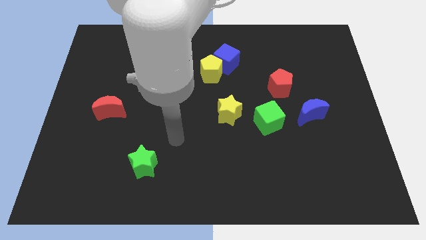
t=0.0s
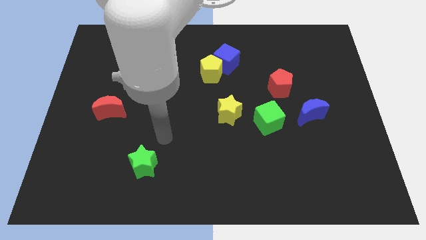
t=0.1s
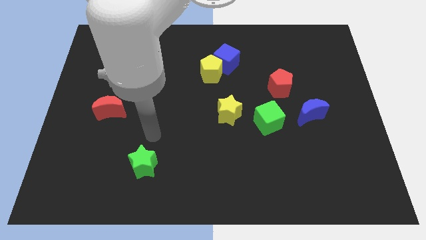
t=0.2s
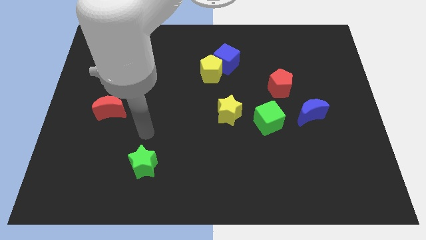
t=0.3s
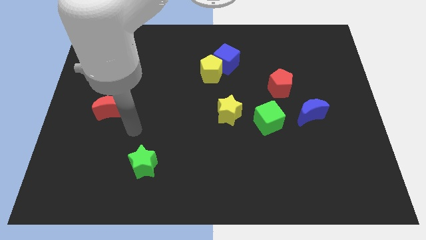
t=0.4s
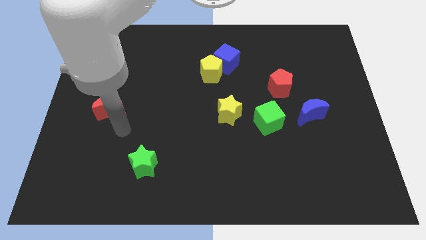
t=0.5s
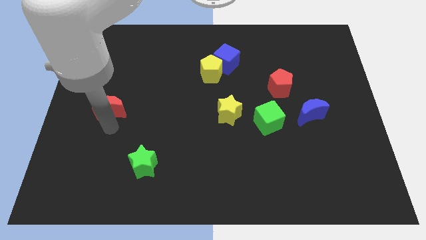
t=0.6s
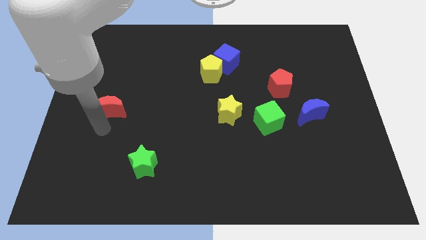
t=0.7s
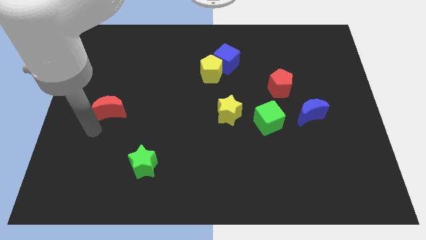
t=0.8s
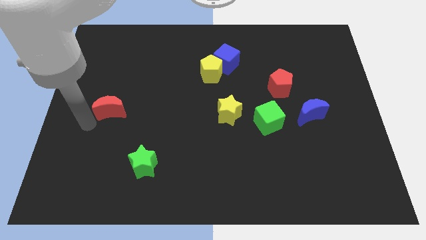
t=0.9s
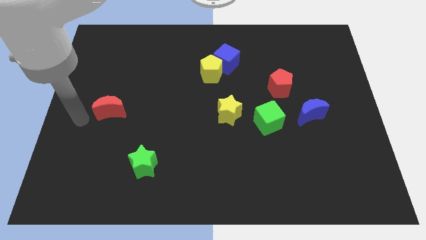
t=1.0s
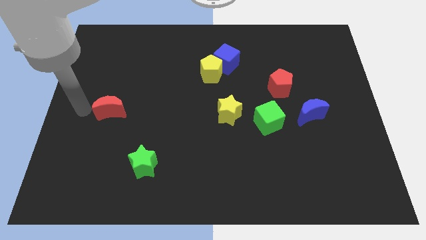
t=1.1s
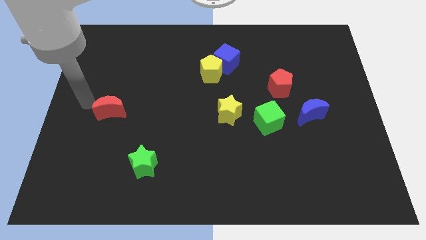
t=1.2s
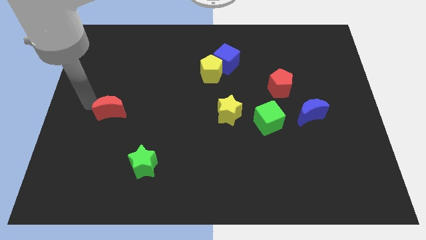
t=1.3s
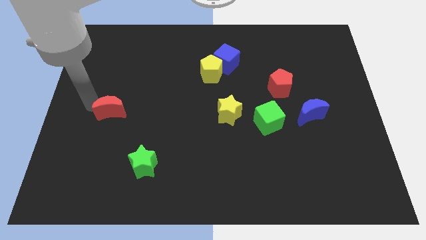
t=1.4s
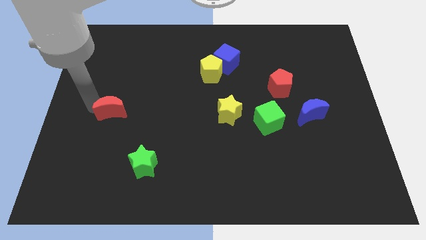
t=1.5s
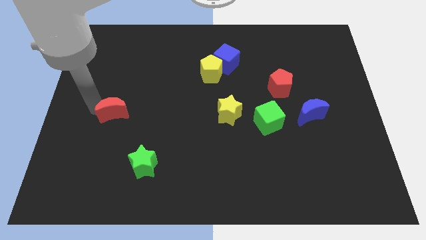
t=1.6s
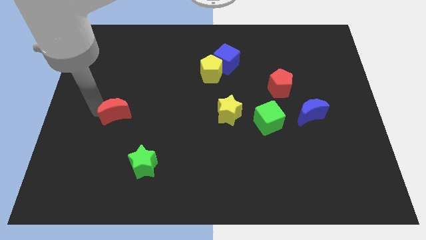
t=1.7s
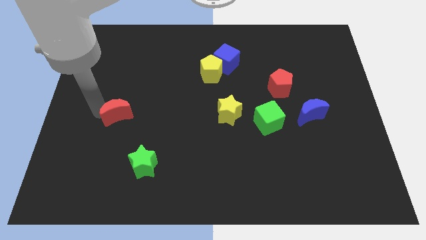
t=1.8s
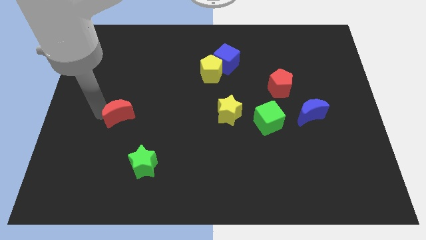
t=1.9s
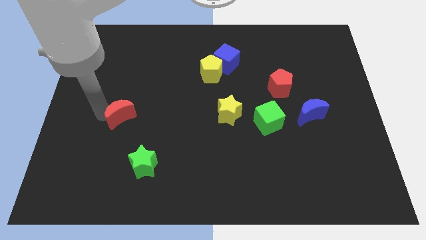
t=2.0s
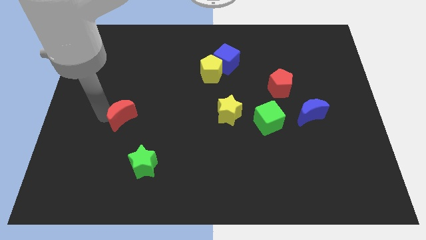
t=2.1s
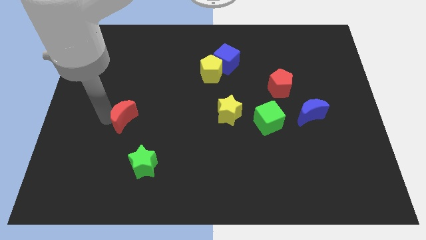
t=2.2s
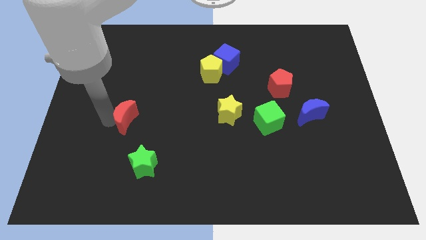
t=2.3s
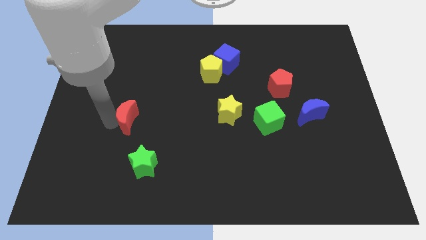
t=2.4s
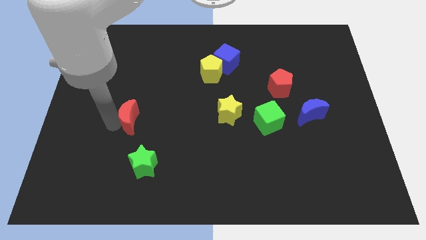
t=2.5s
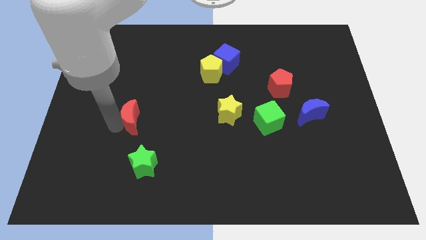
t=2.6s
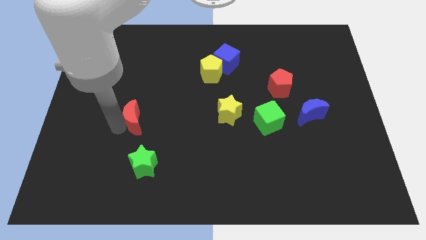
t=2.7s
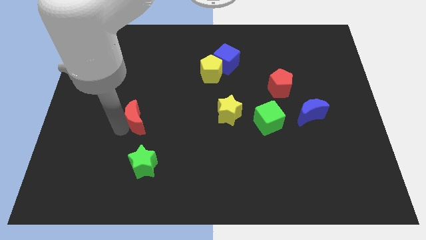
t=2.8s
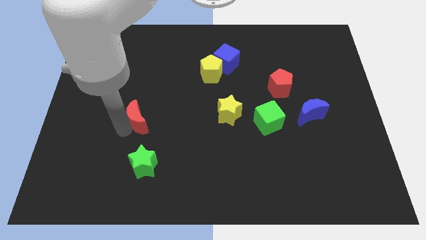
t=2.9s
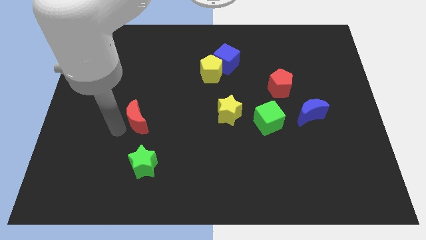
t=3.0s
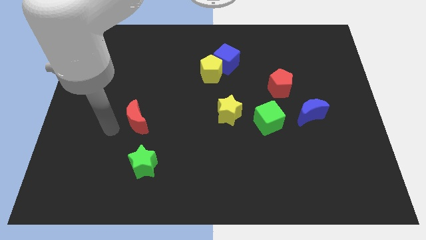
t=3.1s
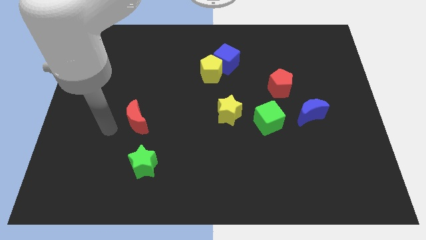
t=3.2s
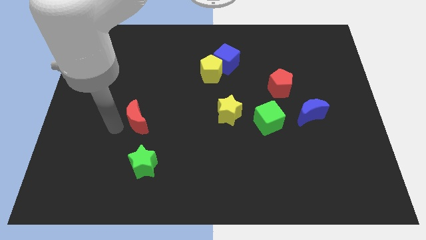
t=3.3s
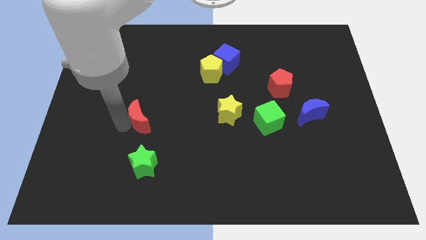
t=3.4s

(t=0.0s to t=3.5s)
slightly slide the red moon to the right

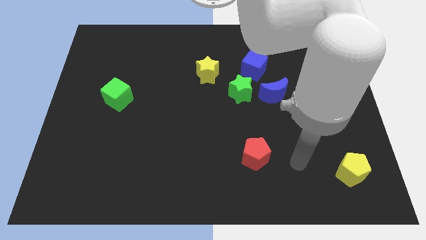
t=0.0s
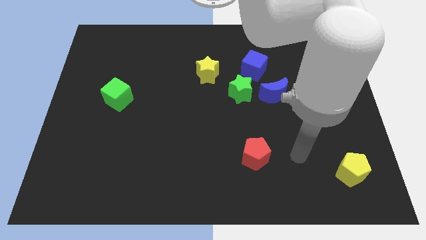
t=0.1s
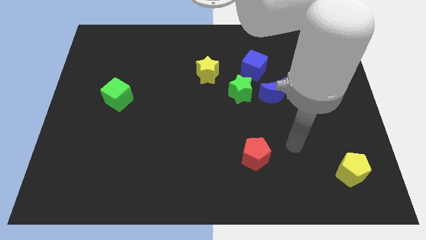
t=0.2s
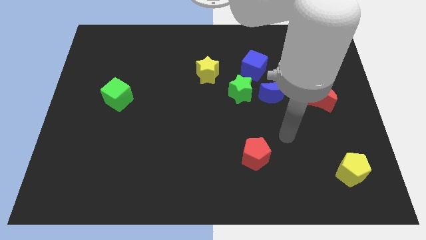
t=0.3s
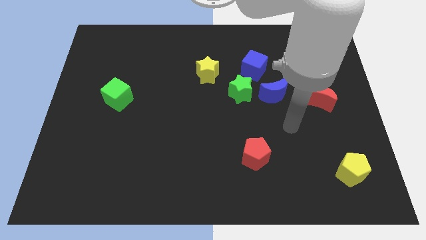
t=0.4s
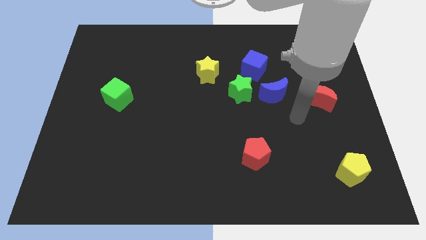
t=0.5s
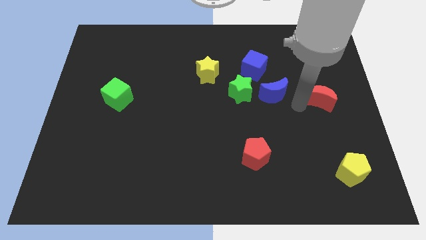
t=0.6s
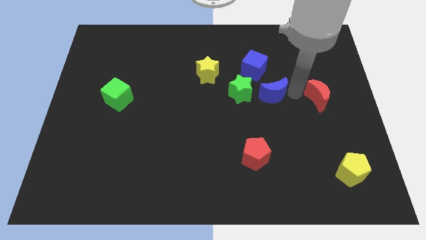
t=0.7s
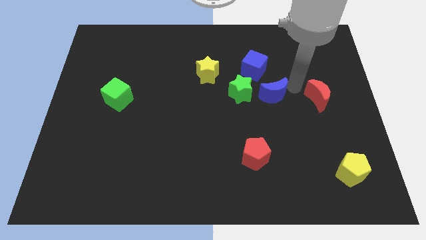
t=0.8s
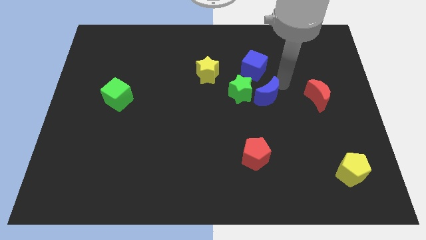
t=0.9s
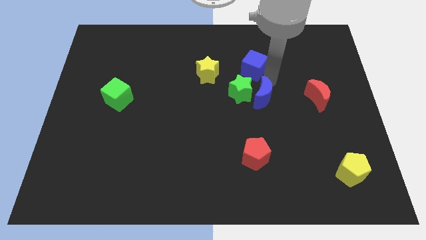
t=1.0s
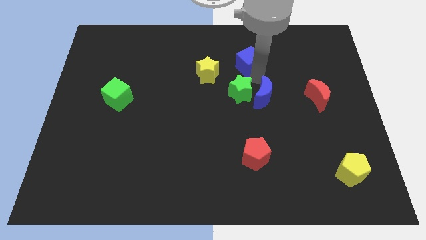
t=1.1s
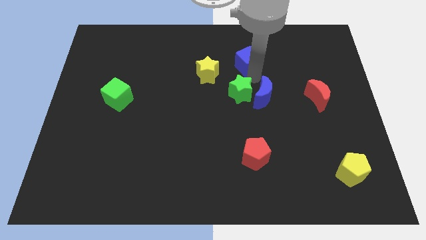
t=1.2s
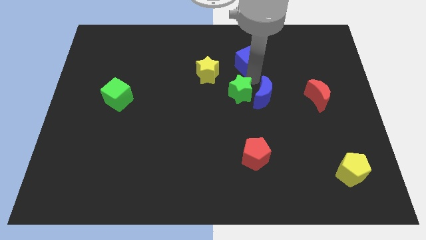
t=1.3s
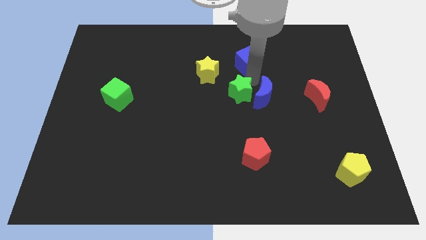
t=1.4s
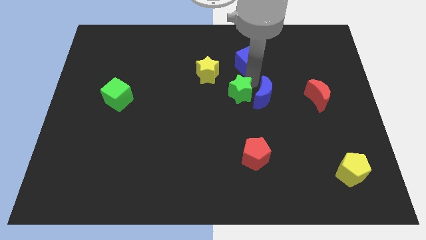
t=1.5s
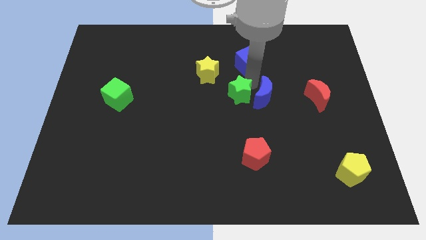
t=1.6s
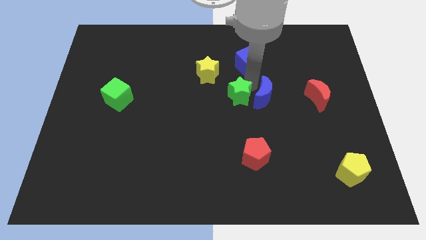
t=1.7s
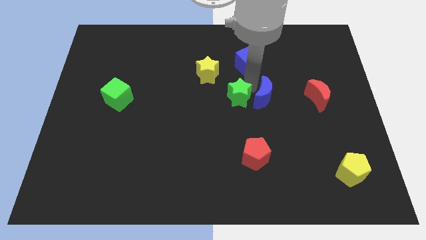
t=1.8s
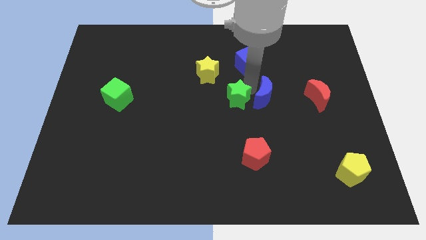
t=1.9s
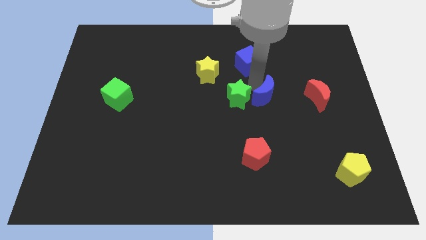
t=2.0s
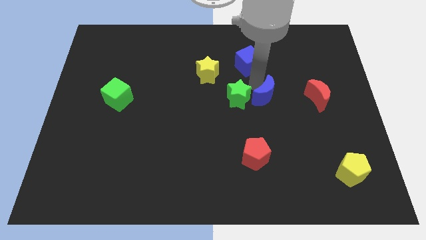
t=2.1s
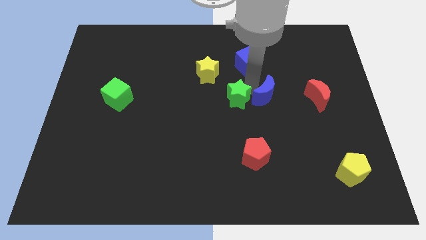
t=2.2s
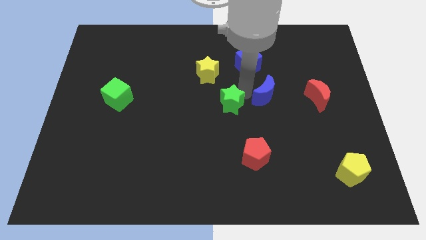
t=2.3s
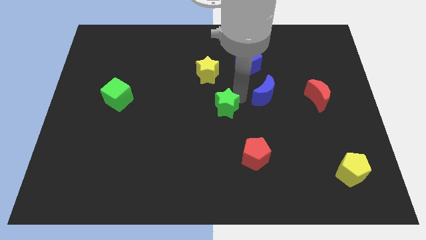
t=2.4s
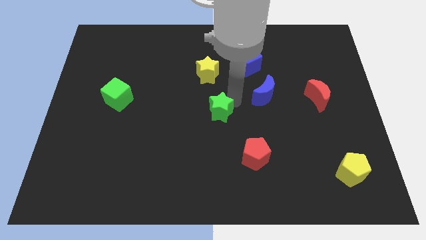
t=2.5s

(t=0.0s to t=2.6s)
push the green star somewhat downwards and to the left

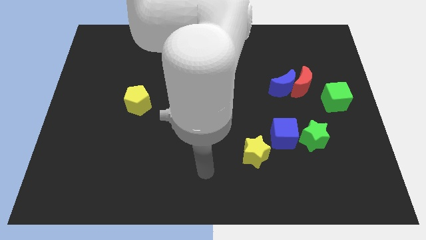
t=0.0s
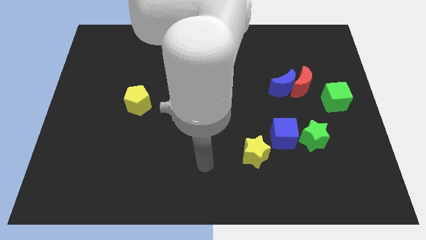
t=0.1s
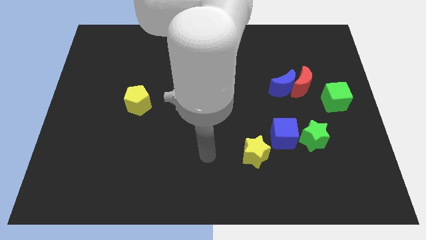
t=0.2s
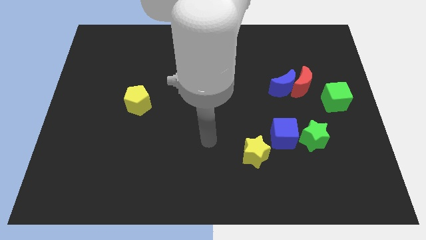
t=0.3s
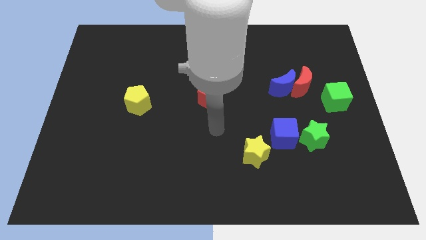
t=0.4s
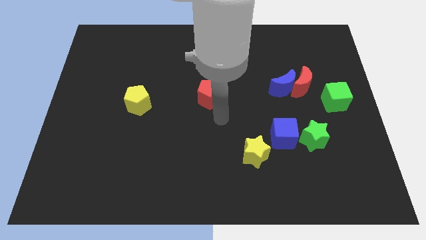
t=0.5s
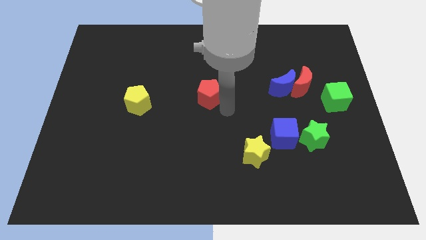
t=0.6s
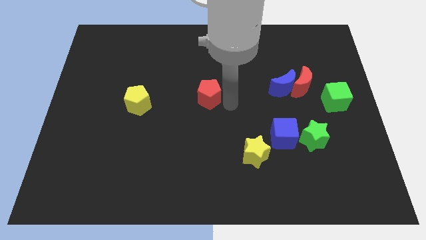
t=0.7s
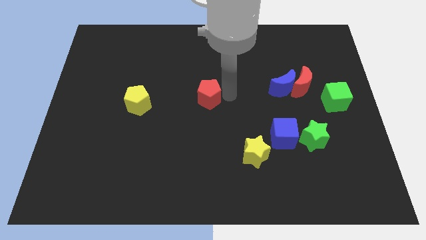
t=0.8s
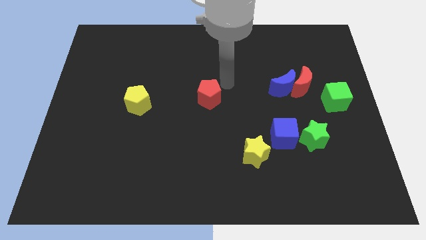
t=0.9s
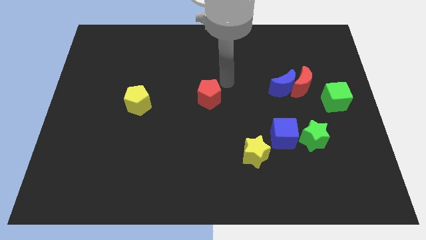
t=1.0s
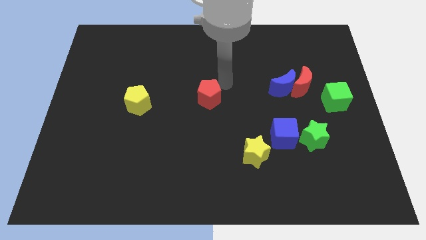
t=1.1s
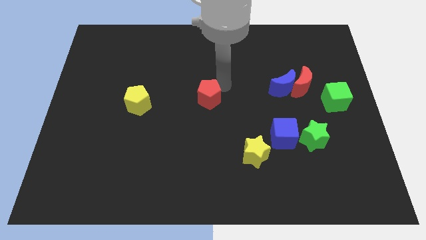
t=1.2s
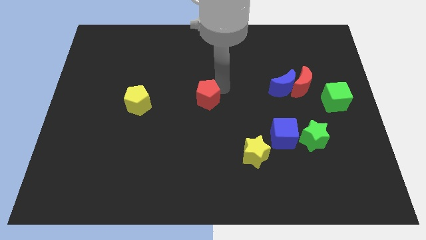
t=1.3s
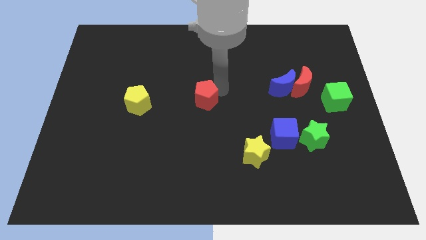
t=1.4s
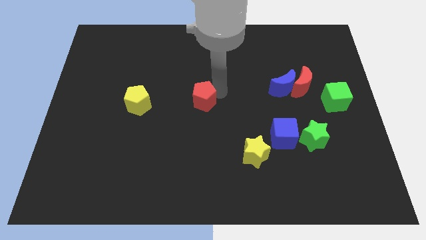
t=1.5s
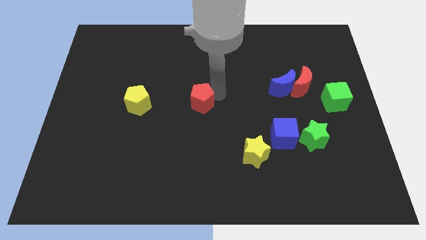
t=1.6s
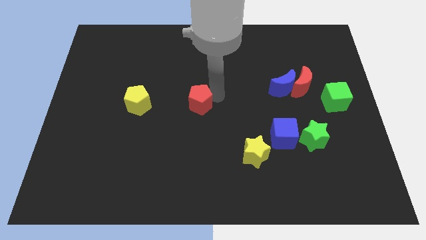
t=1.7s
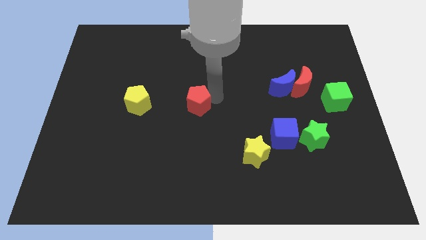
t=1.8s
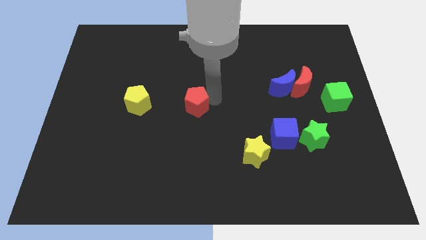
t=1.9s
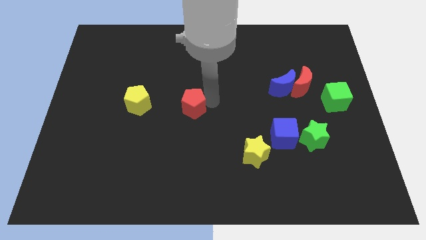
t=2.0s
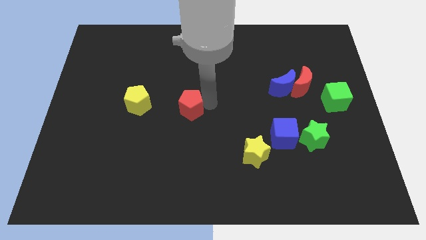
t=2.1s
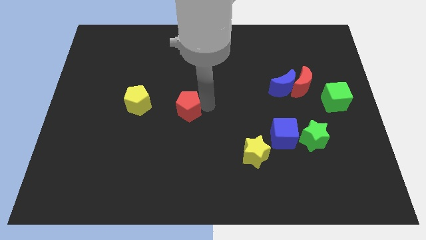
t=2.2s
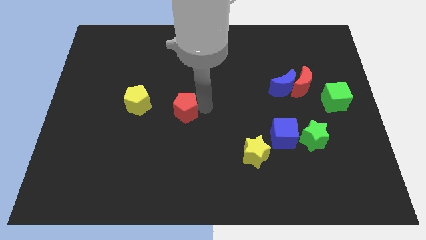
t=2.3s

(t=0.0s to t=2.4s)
slightly move the red pentagon downwards and then left
